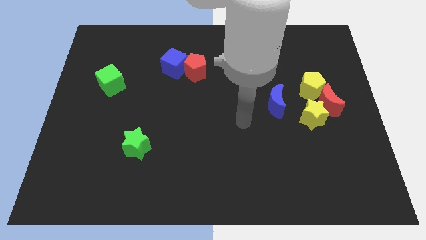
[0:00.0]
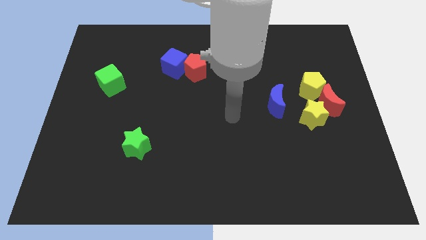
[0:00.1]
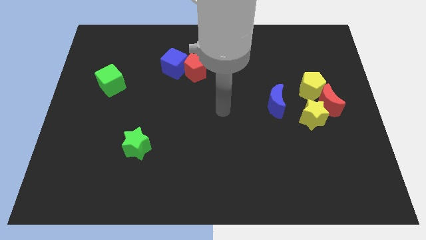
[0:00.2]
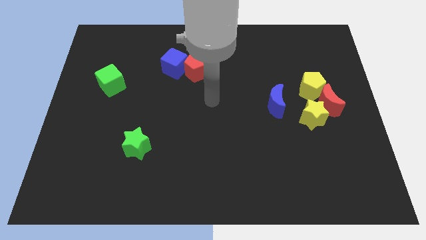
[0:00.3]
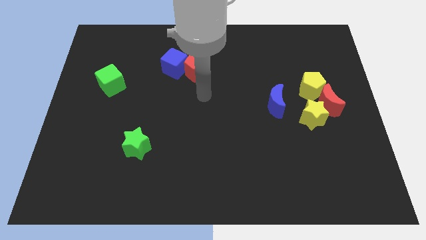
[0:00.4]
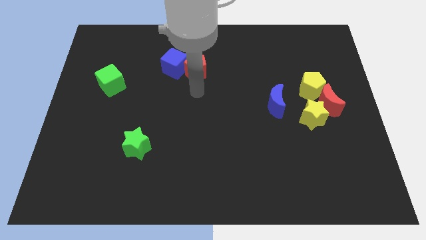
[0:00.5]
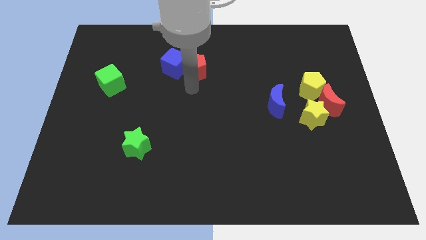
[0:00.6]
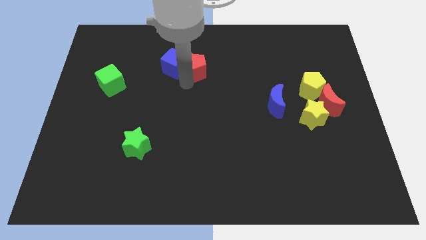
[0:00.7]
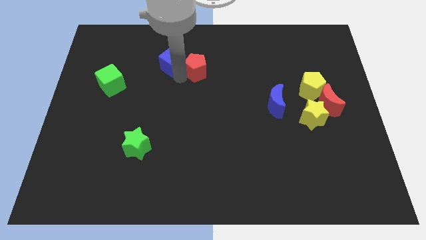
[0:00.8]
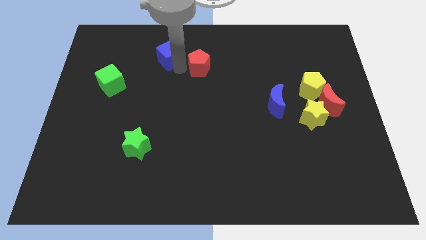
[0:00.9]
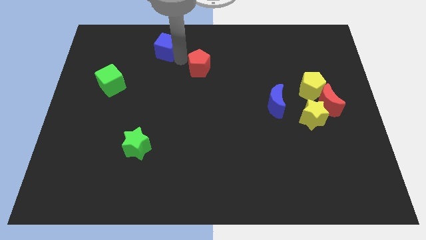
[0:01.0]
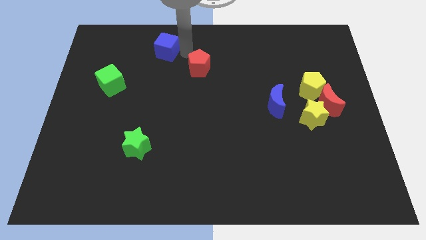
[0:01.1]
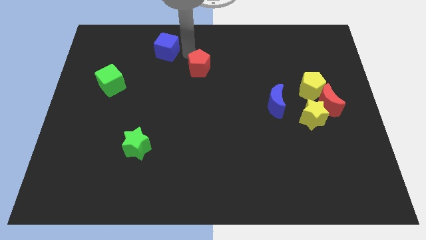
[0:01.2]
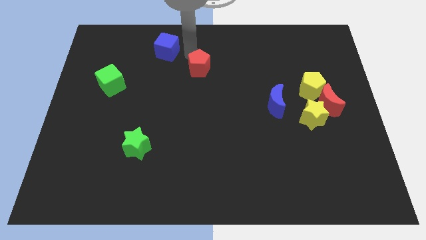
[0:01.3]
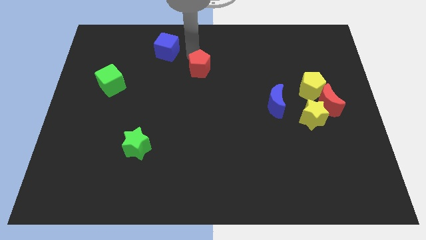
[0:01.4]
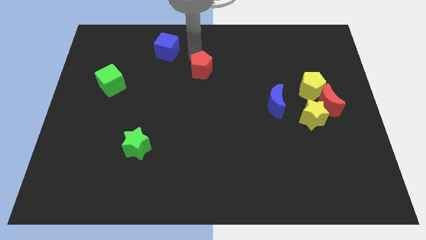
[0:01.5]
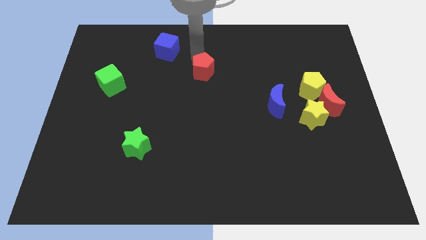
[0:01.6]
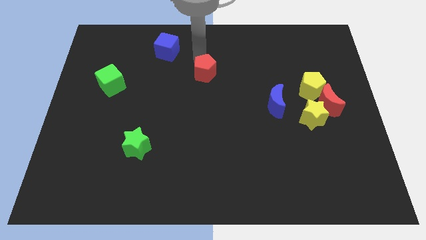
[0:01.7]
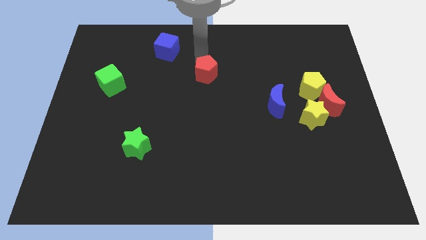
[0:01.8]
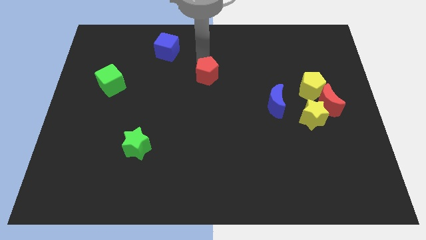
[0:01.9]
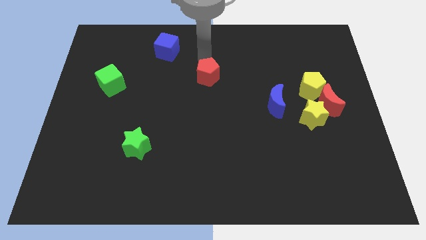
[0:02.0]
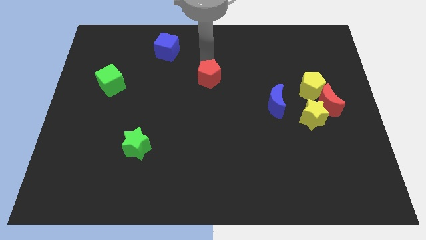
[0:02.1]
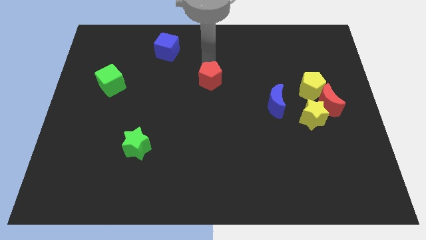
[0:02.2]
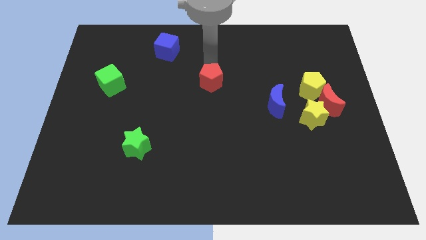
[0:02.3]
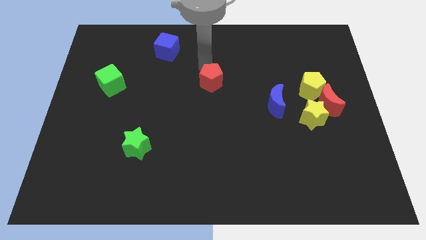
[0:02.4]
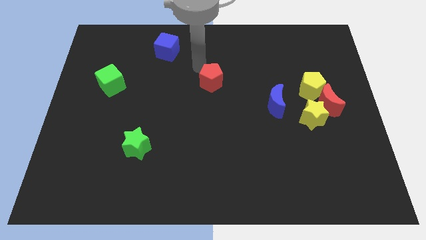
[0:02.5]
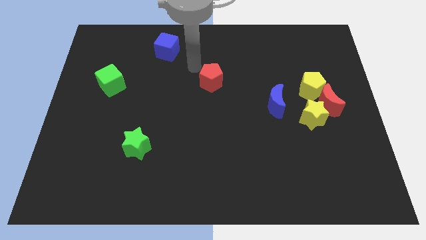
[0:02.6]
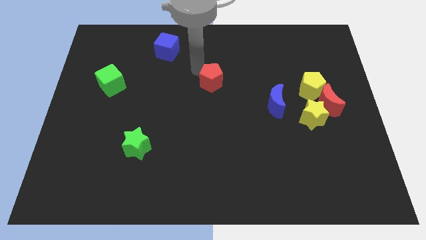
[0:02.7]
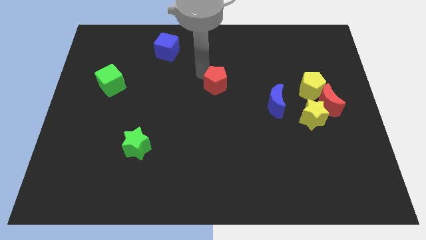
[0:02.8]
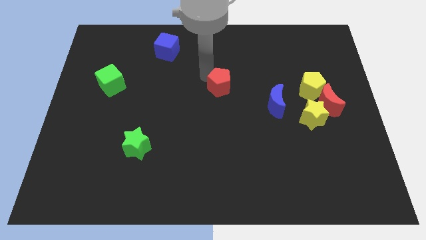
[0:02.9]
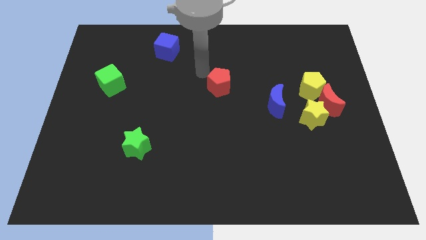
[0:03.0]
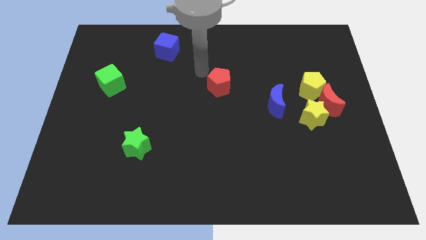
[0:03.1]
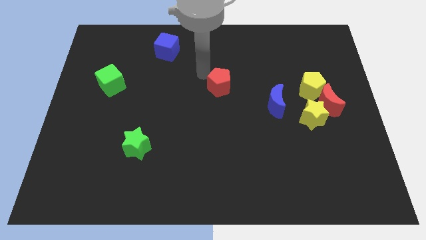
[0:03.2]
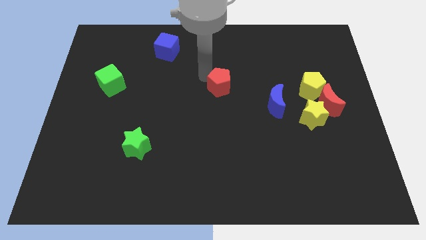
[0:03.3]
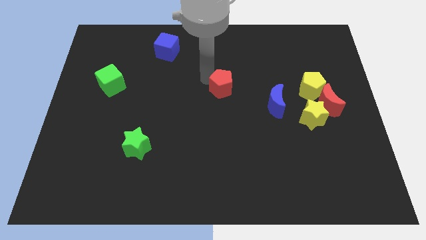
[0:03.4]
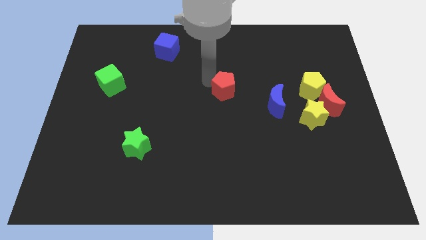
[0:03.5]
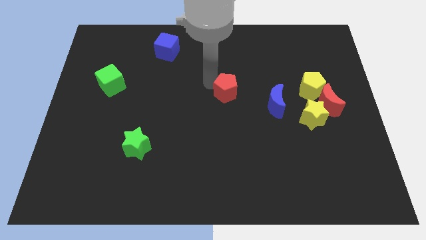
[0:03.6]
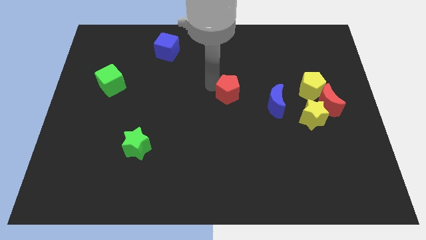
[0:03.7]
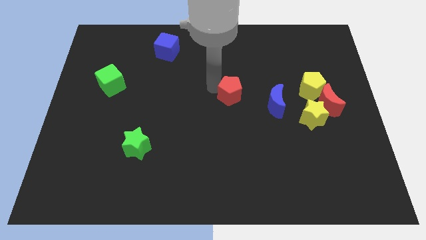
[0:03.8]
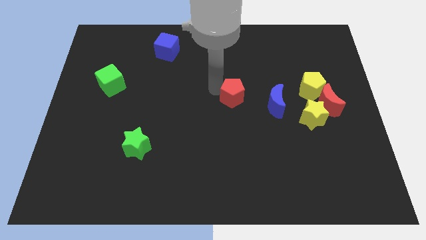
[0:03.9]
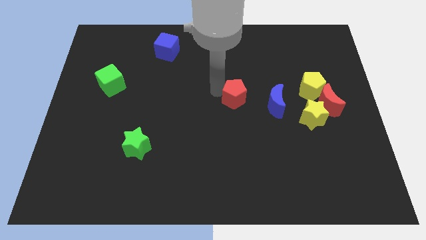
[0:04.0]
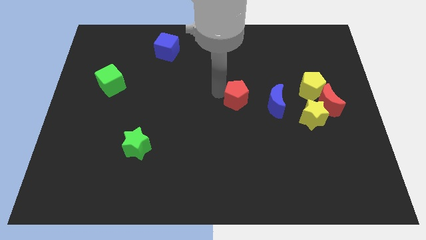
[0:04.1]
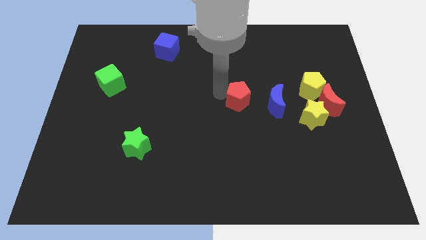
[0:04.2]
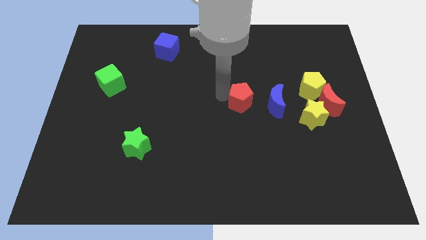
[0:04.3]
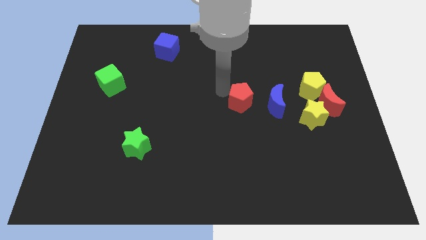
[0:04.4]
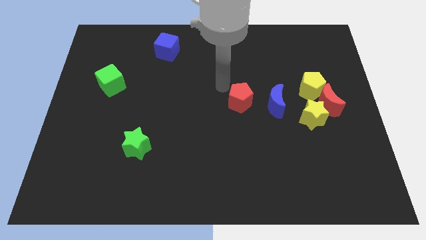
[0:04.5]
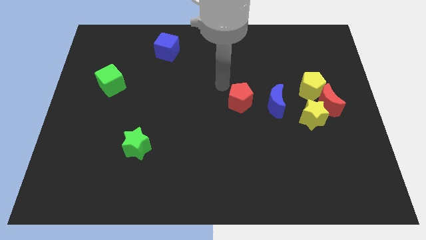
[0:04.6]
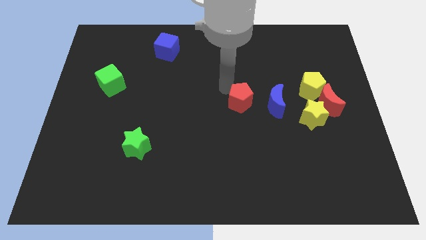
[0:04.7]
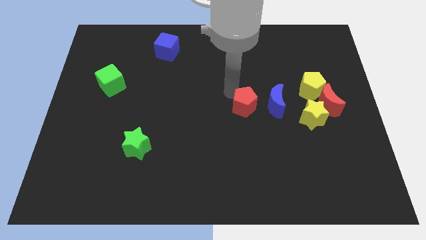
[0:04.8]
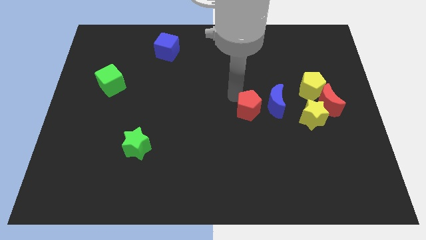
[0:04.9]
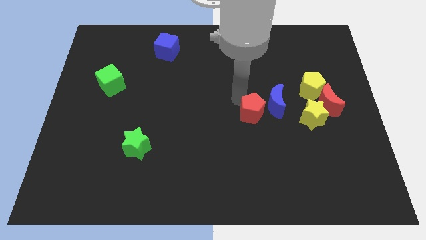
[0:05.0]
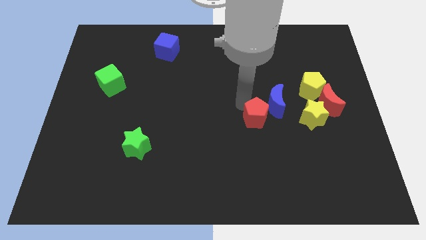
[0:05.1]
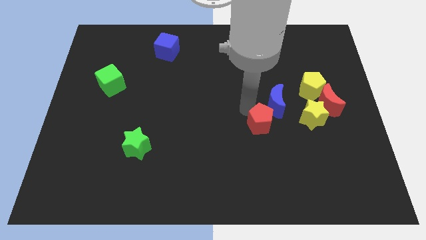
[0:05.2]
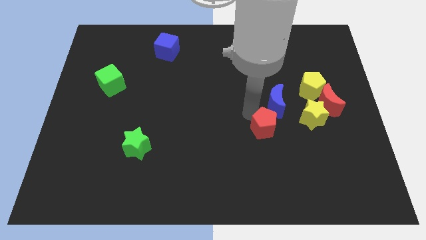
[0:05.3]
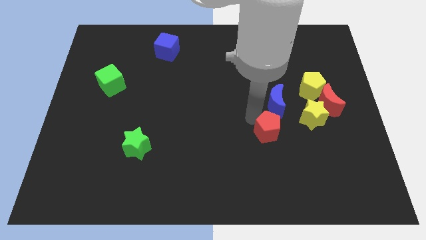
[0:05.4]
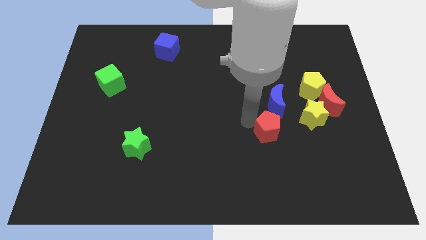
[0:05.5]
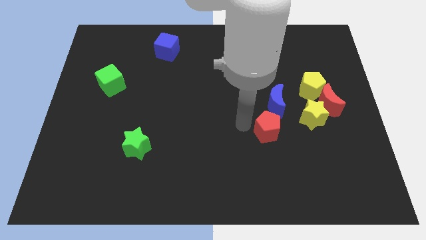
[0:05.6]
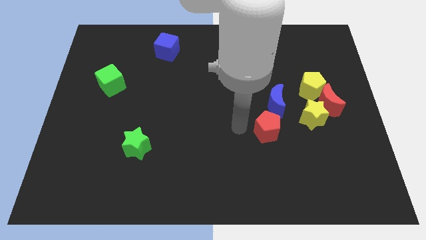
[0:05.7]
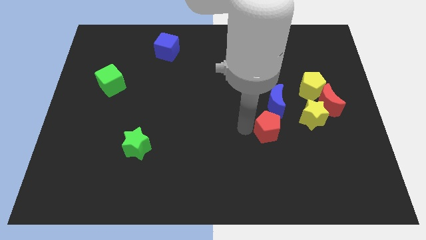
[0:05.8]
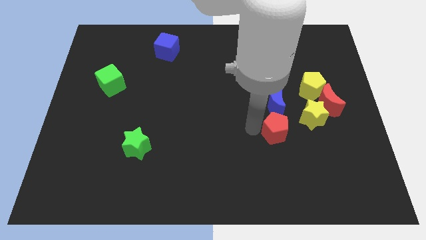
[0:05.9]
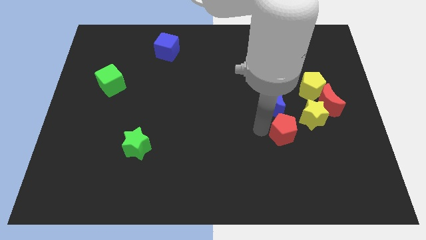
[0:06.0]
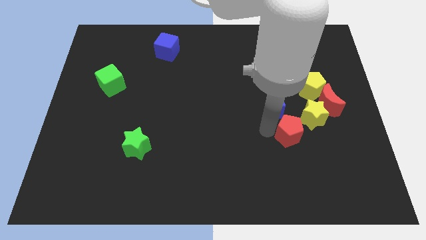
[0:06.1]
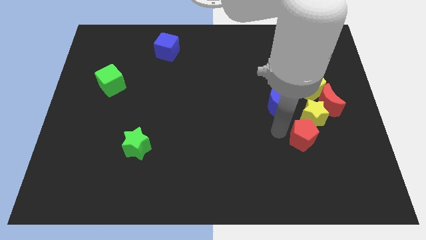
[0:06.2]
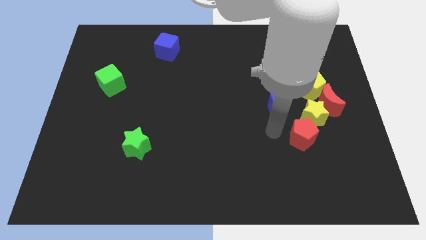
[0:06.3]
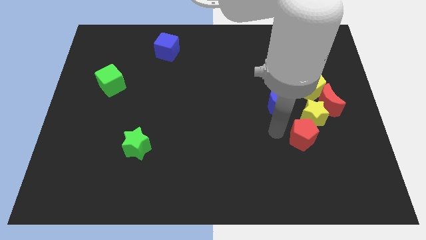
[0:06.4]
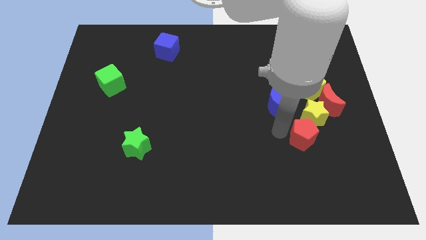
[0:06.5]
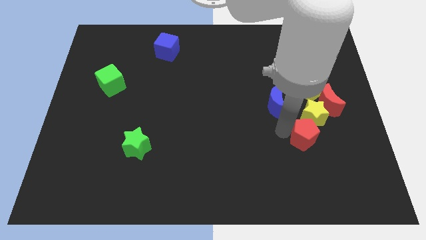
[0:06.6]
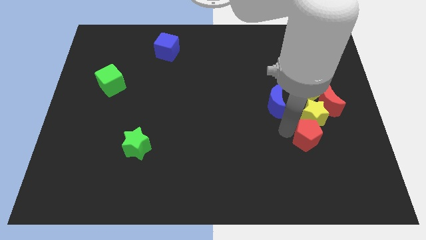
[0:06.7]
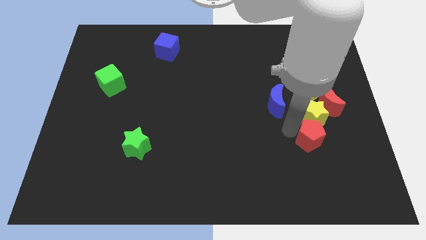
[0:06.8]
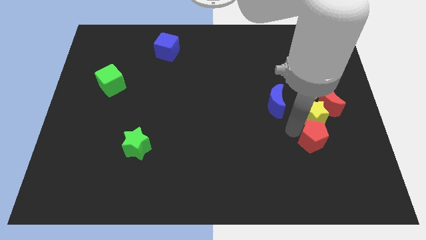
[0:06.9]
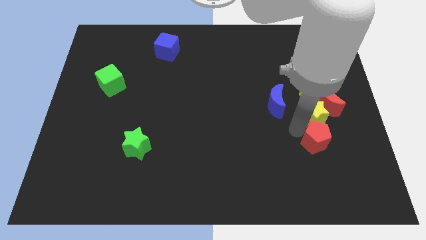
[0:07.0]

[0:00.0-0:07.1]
slide the red pentagon to the bottom side of the red moon
